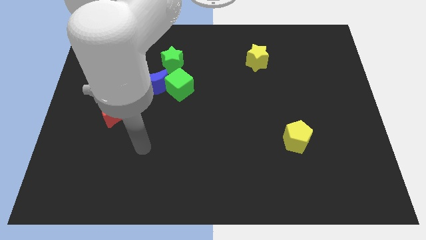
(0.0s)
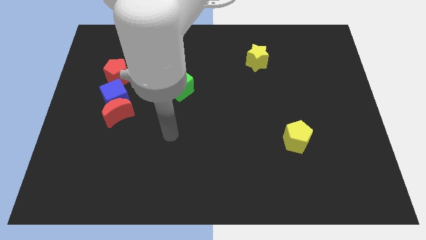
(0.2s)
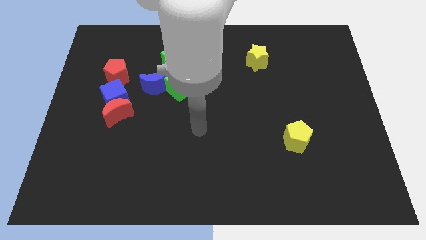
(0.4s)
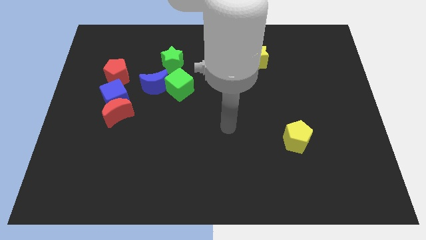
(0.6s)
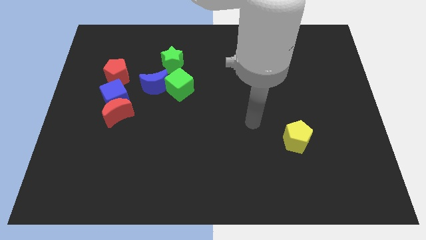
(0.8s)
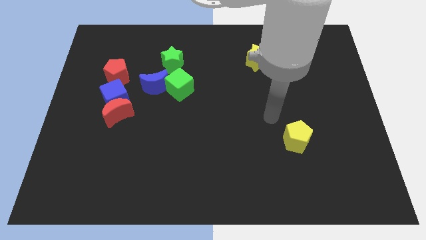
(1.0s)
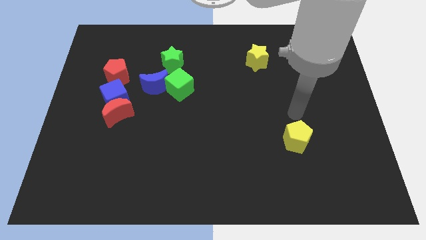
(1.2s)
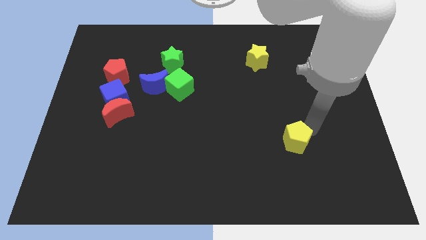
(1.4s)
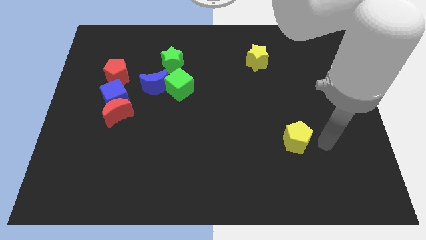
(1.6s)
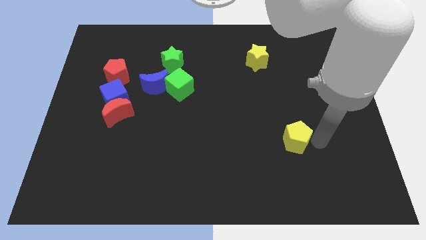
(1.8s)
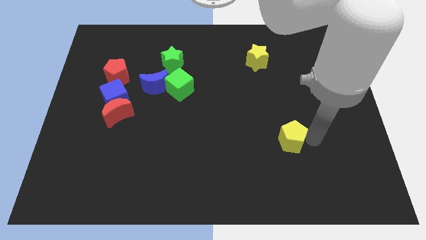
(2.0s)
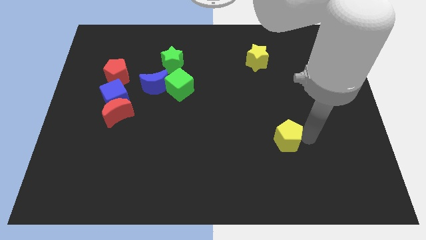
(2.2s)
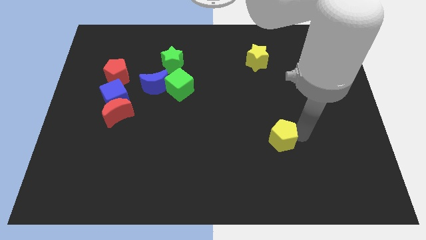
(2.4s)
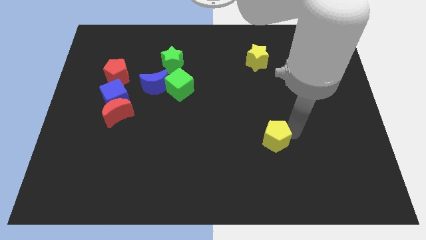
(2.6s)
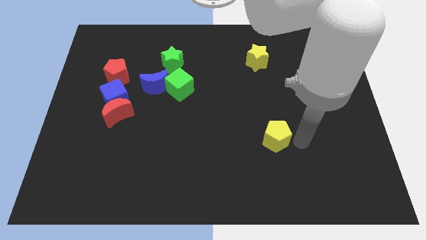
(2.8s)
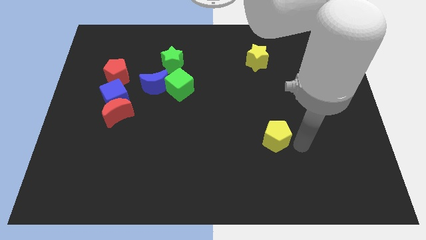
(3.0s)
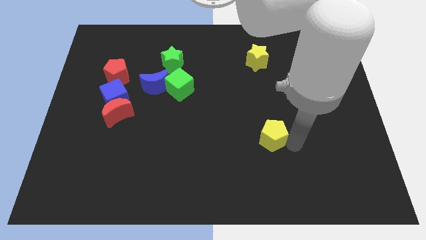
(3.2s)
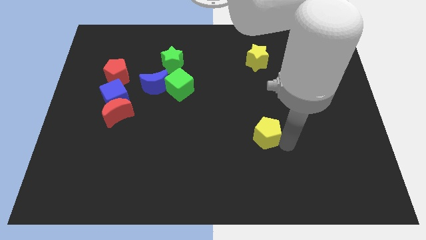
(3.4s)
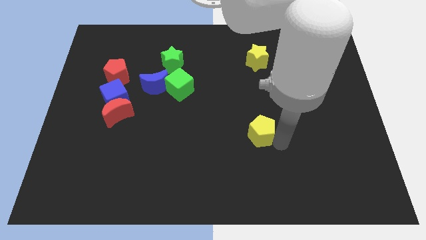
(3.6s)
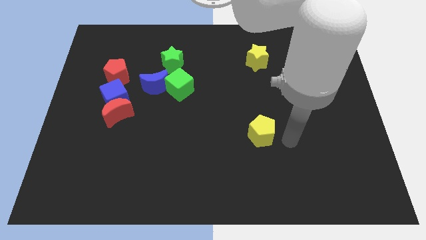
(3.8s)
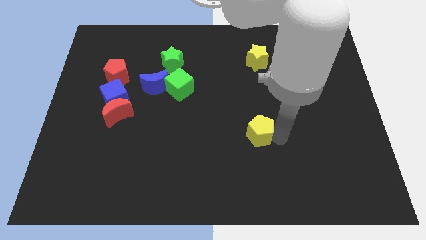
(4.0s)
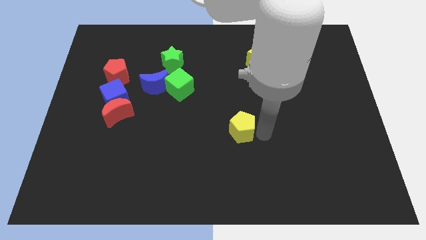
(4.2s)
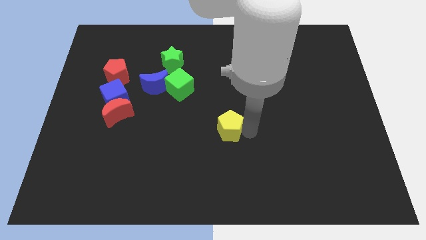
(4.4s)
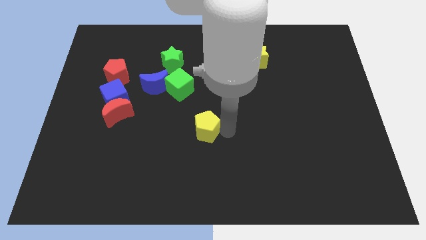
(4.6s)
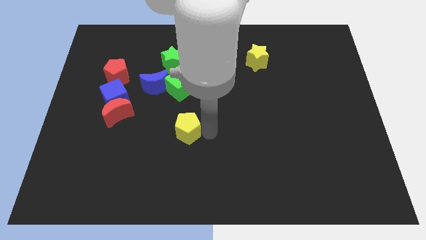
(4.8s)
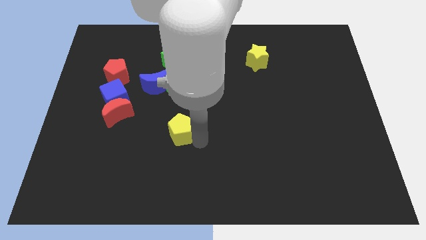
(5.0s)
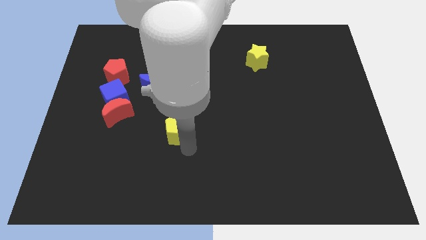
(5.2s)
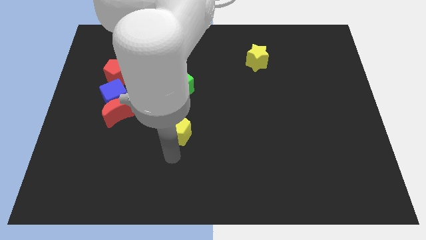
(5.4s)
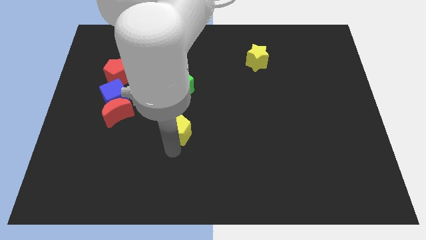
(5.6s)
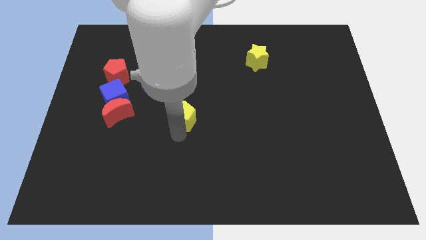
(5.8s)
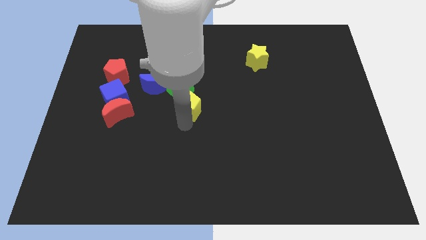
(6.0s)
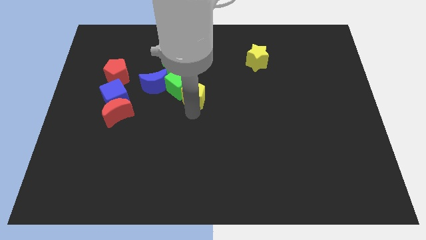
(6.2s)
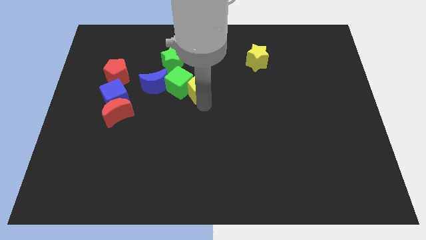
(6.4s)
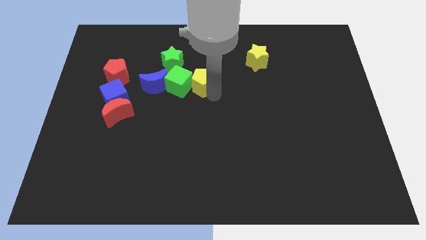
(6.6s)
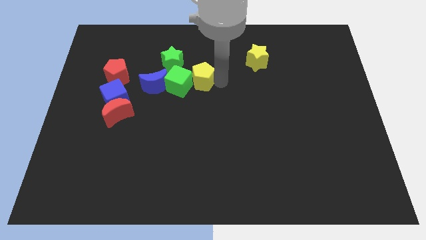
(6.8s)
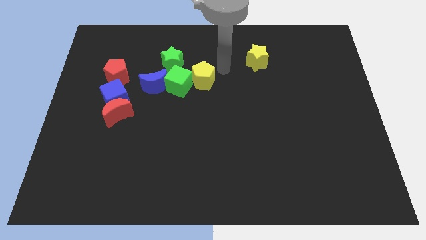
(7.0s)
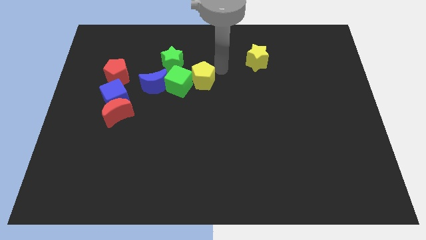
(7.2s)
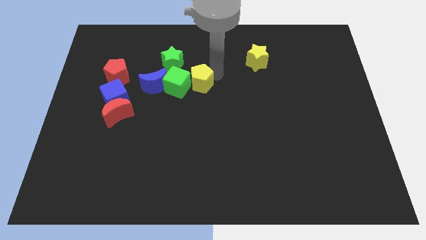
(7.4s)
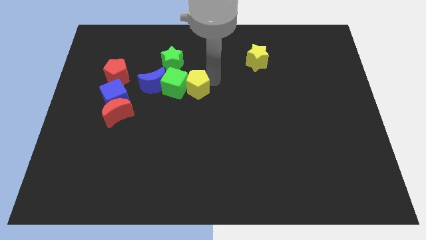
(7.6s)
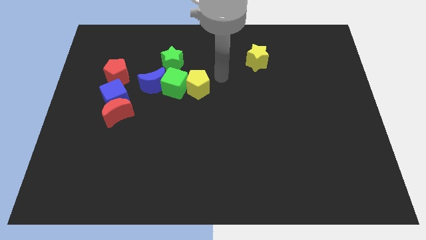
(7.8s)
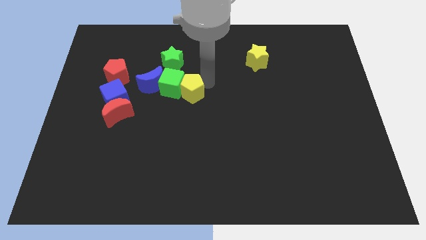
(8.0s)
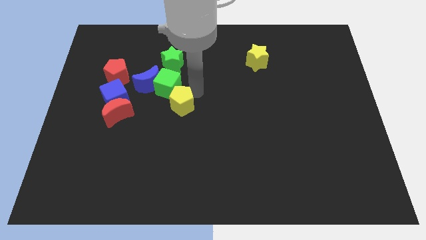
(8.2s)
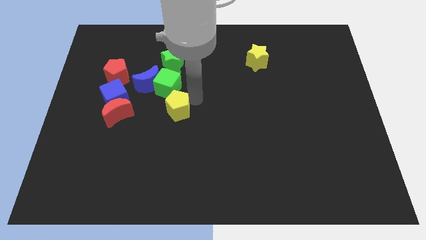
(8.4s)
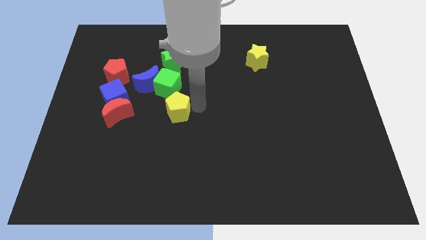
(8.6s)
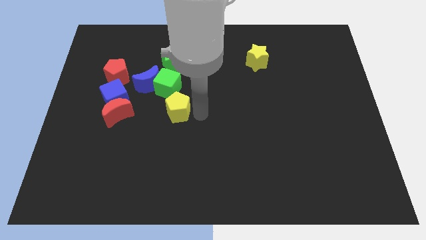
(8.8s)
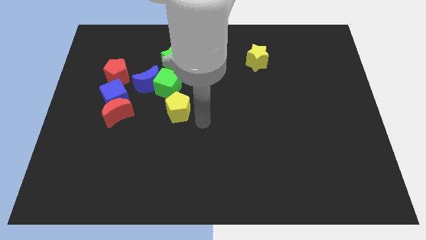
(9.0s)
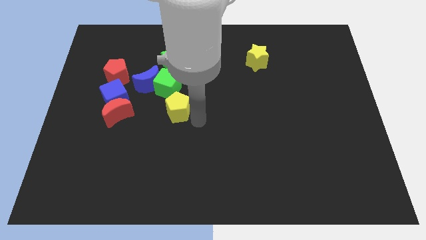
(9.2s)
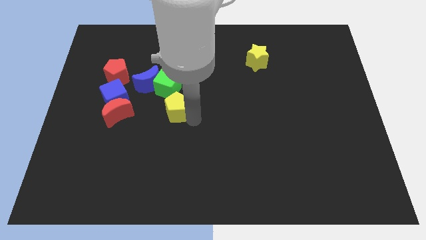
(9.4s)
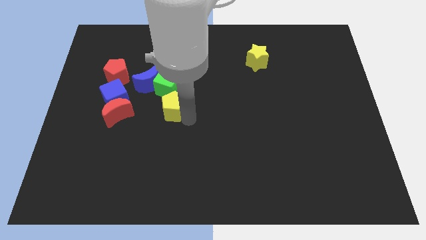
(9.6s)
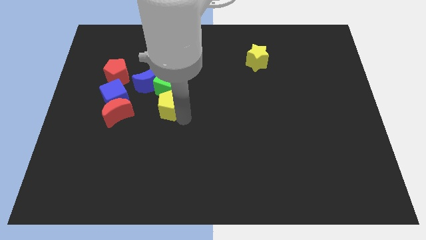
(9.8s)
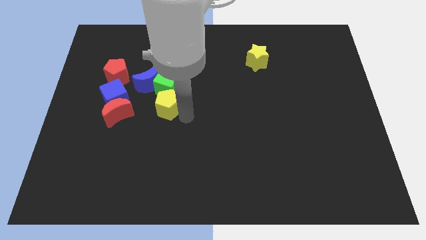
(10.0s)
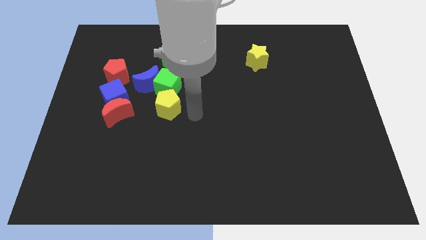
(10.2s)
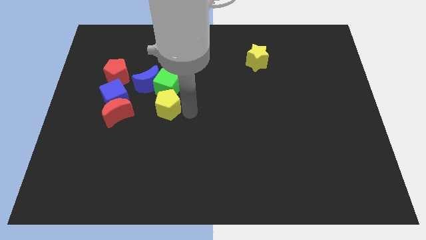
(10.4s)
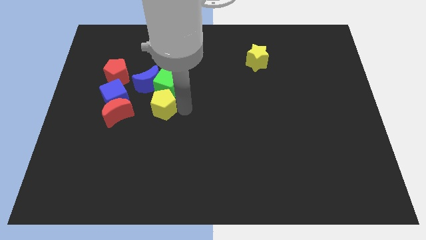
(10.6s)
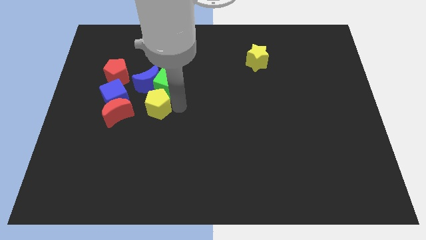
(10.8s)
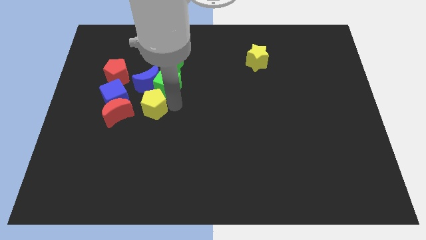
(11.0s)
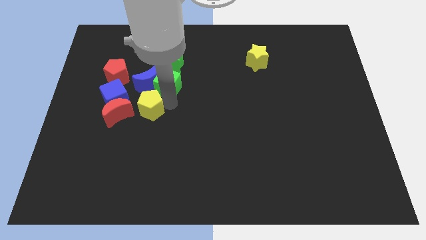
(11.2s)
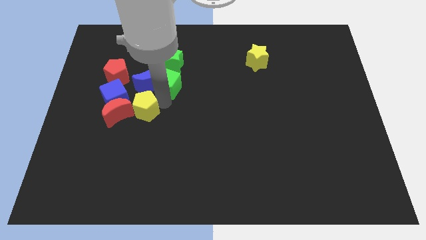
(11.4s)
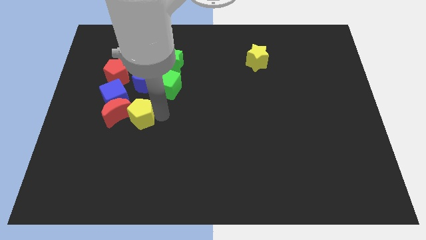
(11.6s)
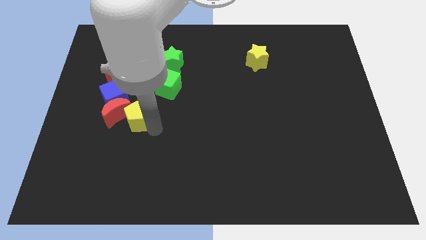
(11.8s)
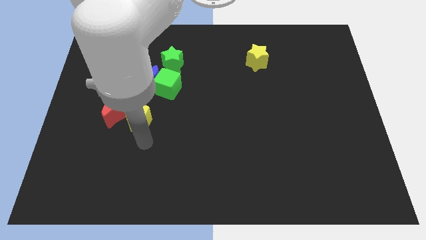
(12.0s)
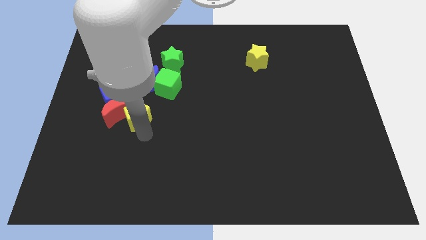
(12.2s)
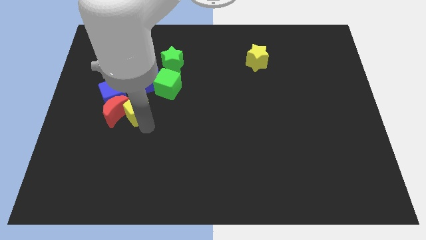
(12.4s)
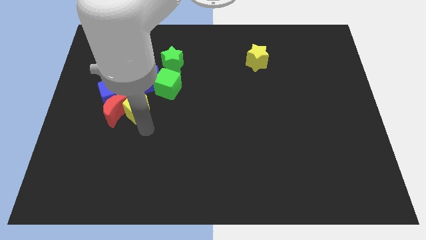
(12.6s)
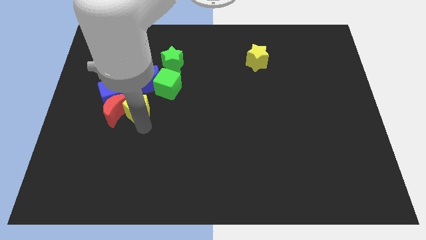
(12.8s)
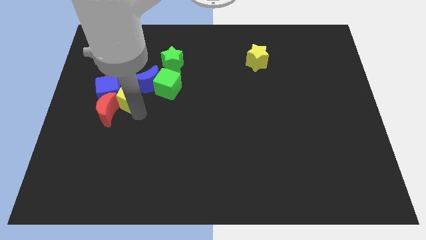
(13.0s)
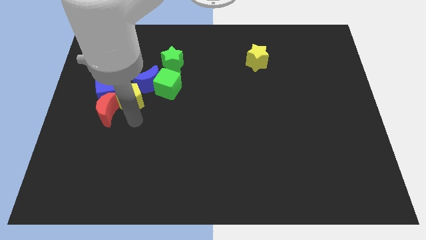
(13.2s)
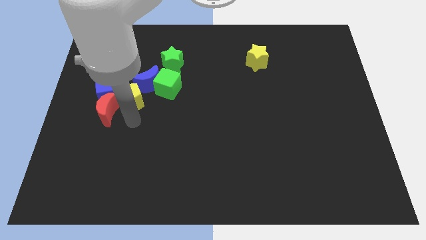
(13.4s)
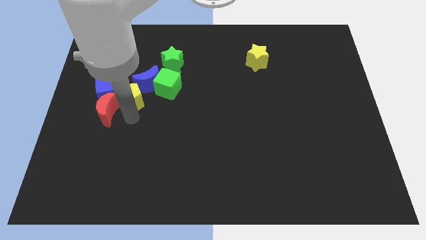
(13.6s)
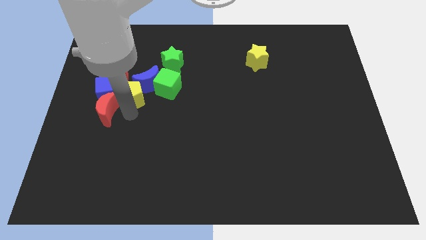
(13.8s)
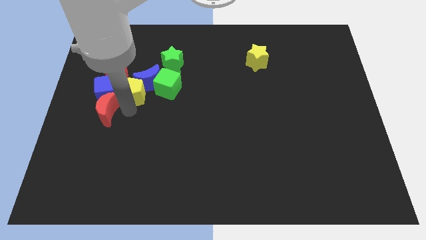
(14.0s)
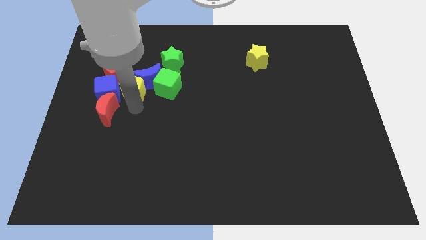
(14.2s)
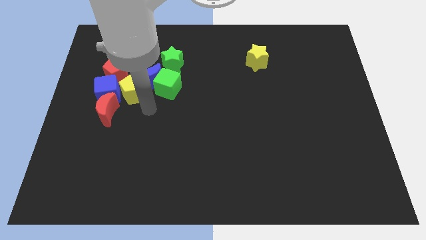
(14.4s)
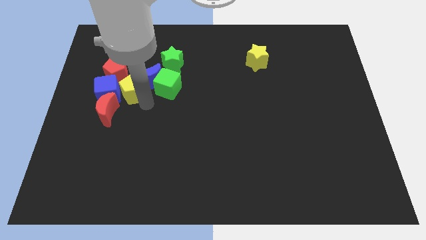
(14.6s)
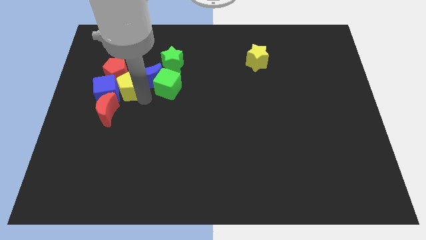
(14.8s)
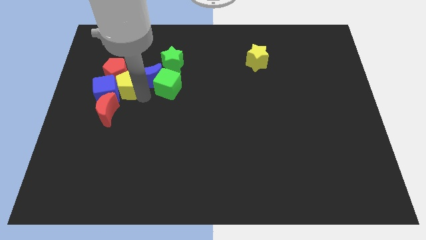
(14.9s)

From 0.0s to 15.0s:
slide the yellow pentagon towards the red pentagon
